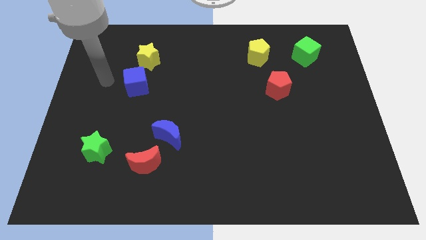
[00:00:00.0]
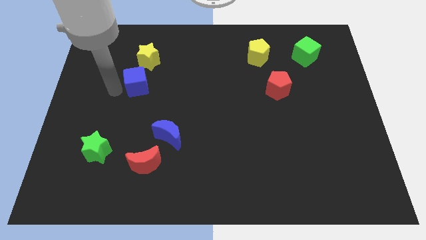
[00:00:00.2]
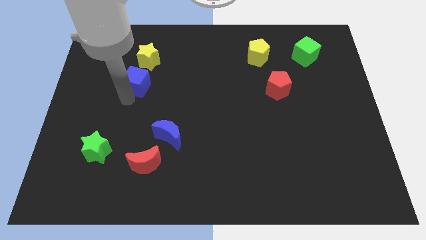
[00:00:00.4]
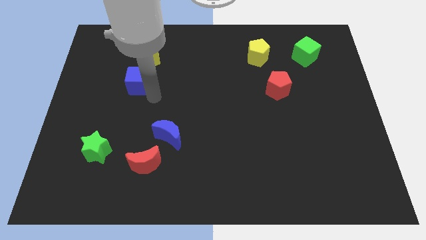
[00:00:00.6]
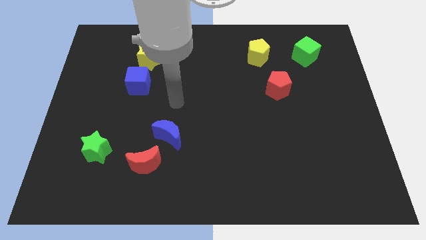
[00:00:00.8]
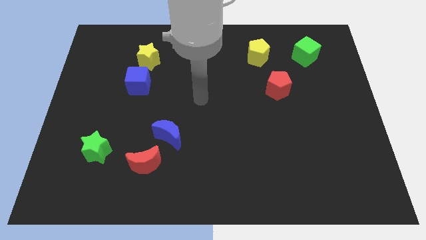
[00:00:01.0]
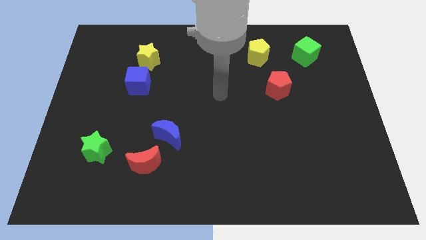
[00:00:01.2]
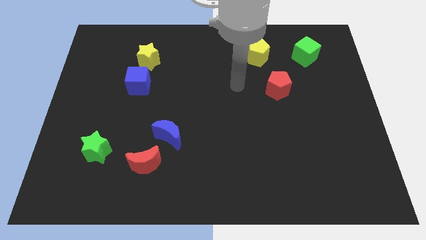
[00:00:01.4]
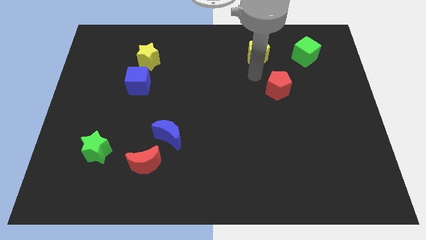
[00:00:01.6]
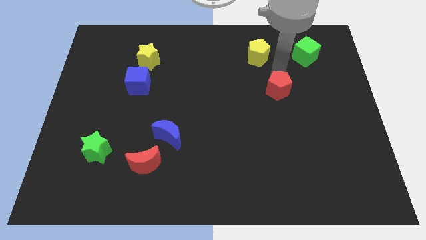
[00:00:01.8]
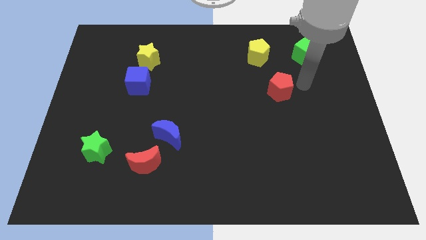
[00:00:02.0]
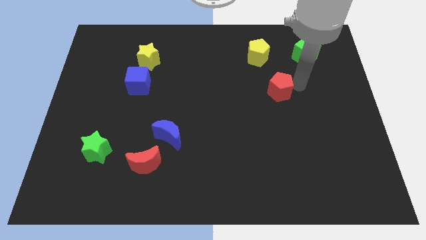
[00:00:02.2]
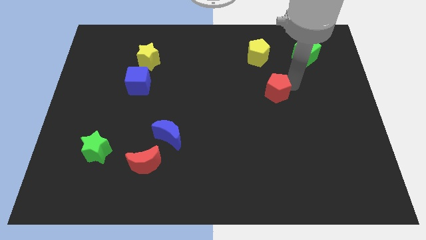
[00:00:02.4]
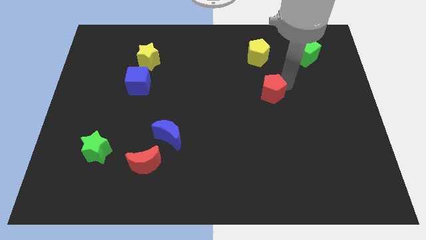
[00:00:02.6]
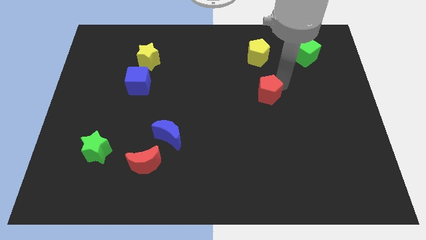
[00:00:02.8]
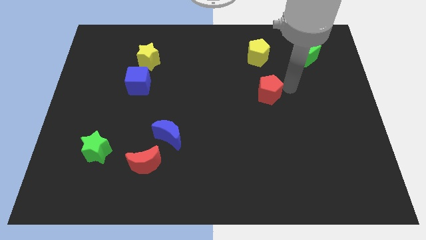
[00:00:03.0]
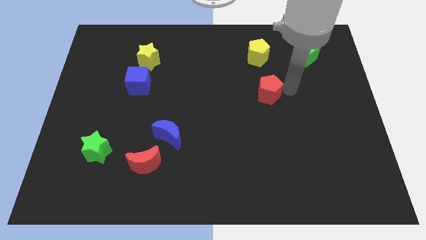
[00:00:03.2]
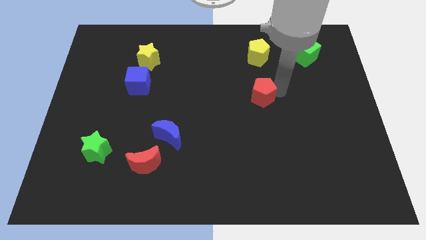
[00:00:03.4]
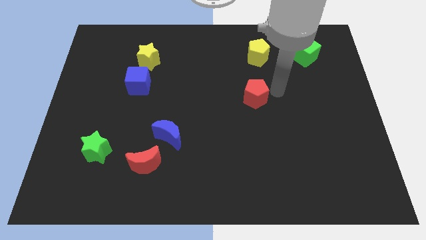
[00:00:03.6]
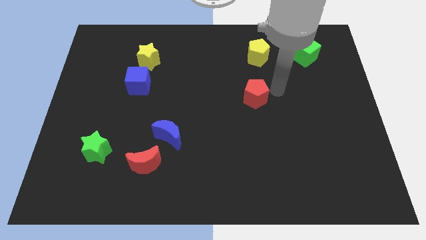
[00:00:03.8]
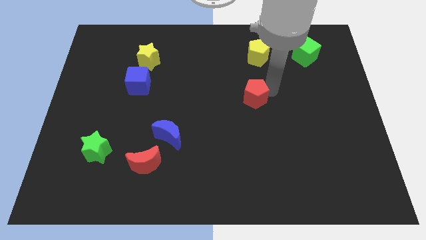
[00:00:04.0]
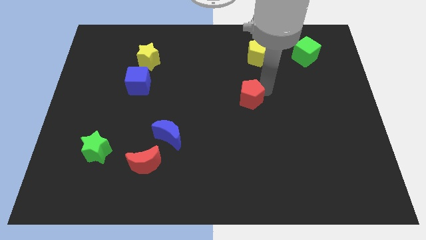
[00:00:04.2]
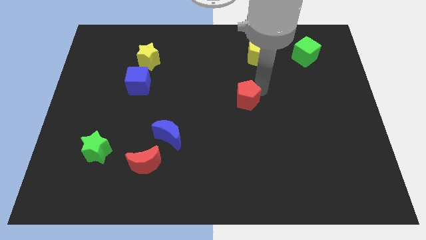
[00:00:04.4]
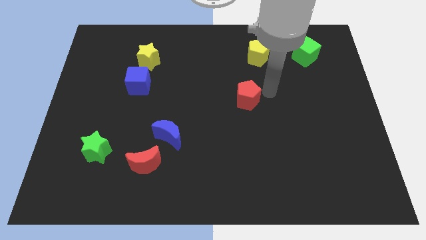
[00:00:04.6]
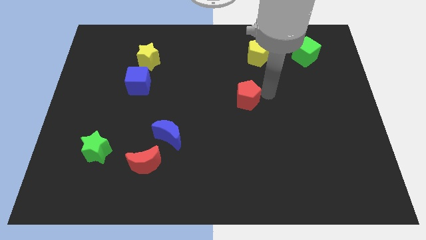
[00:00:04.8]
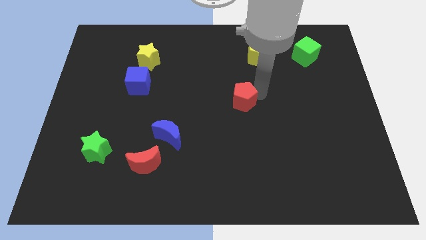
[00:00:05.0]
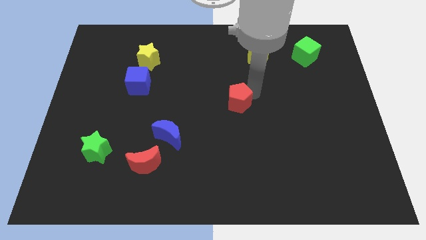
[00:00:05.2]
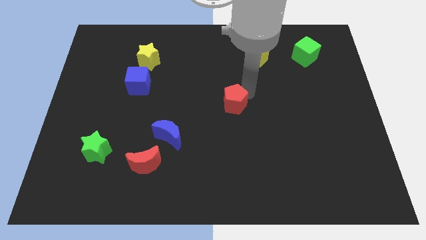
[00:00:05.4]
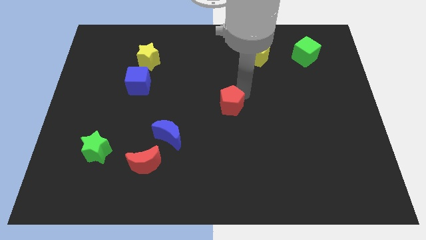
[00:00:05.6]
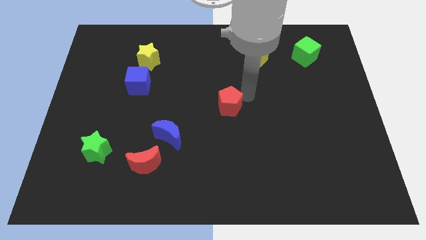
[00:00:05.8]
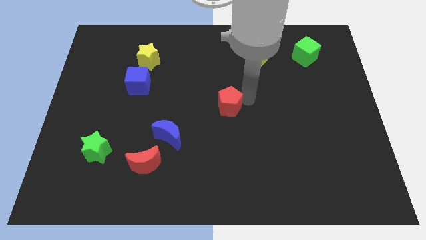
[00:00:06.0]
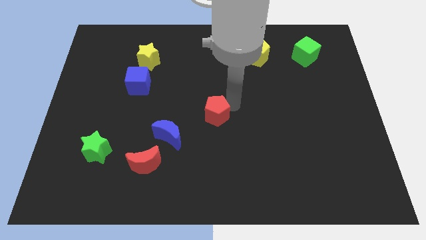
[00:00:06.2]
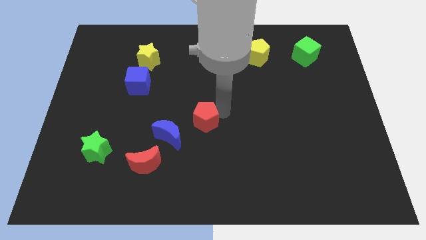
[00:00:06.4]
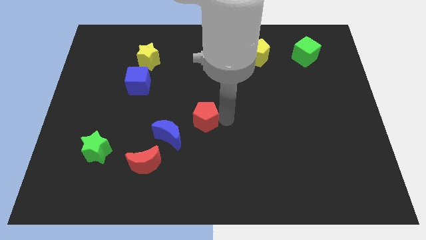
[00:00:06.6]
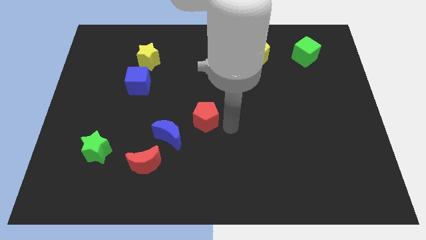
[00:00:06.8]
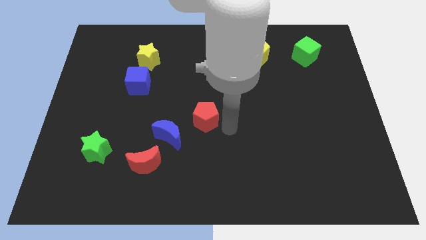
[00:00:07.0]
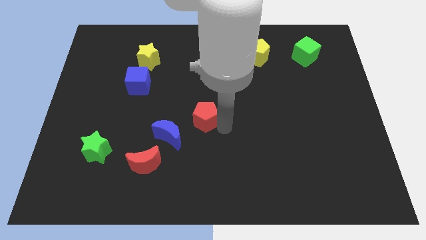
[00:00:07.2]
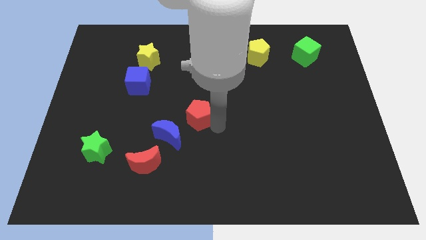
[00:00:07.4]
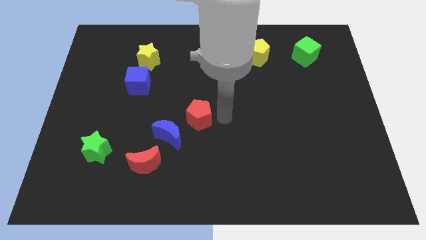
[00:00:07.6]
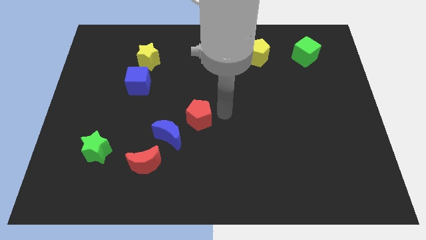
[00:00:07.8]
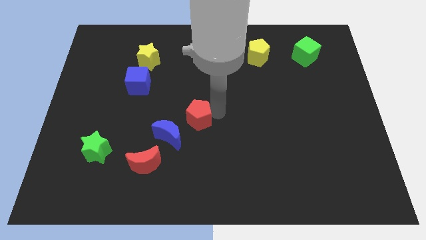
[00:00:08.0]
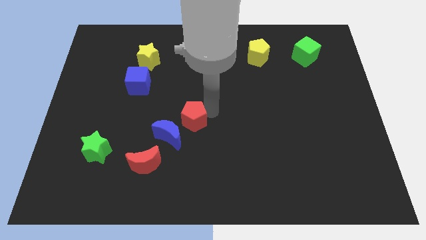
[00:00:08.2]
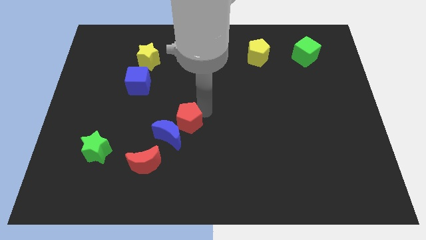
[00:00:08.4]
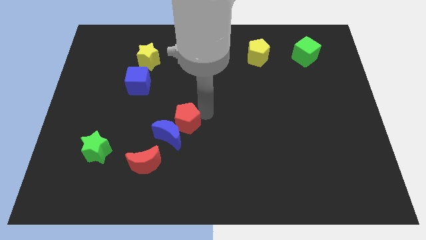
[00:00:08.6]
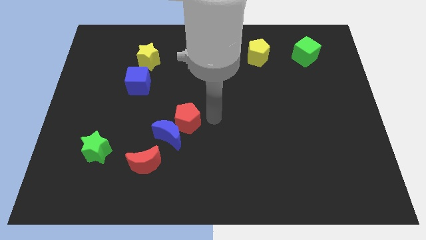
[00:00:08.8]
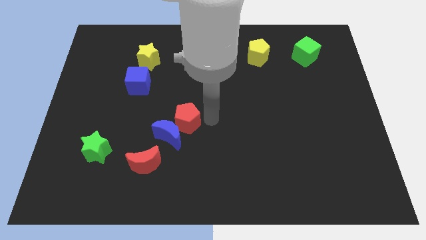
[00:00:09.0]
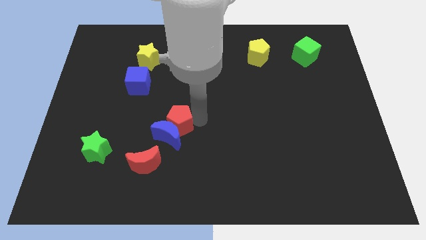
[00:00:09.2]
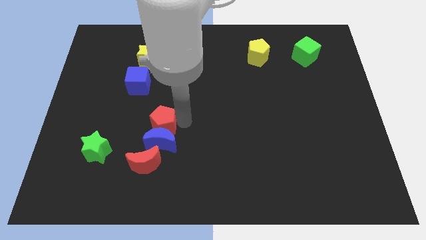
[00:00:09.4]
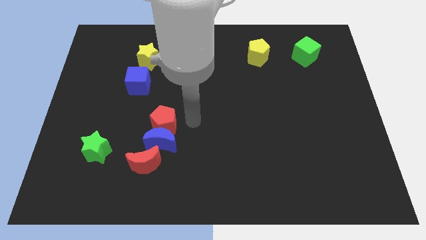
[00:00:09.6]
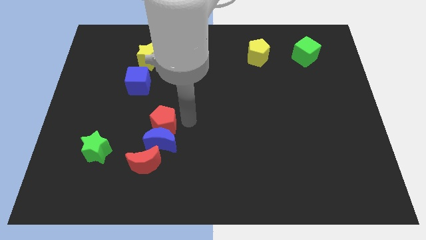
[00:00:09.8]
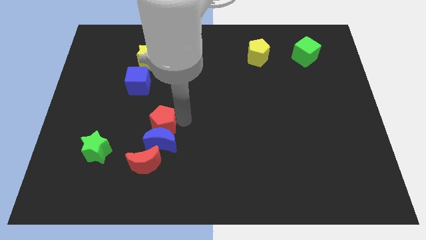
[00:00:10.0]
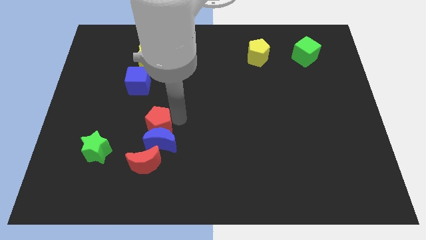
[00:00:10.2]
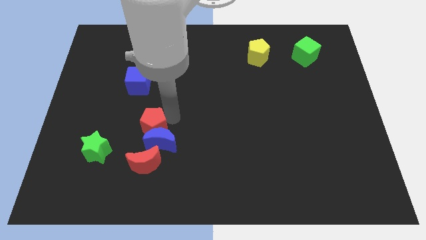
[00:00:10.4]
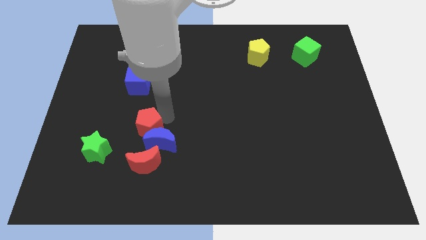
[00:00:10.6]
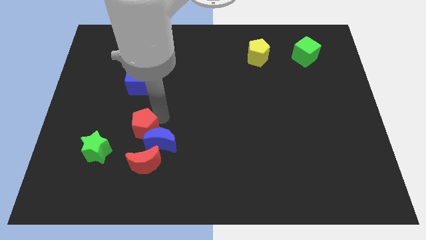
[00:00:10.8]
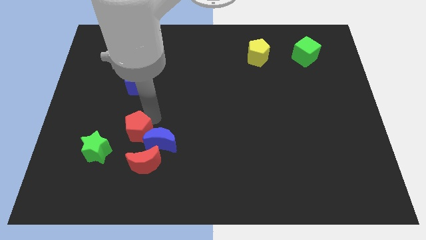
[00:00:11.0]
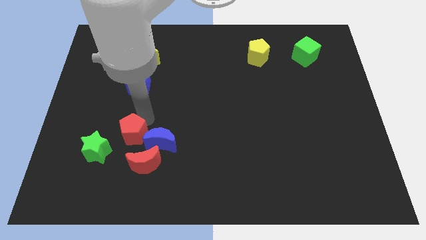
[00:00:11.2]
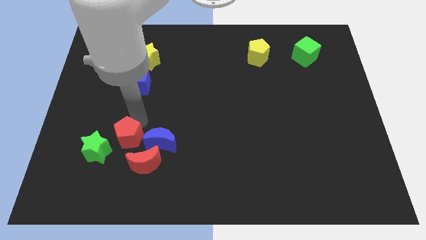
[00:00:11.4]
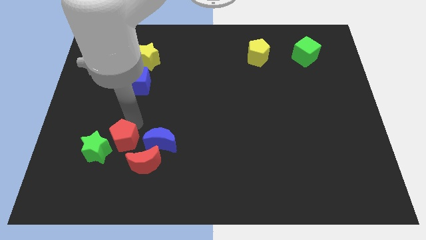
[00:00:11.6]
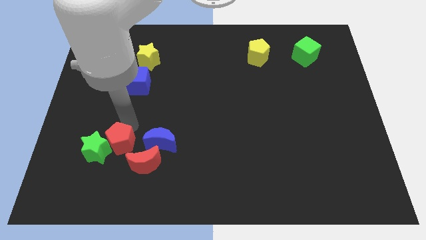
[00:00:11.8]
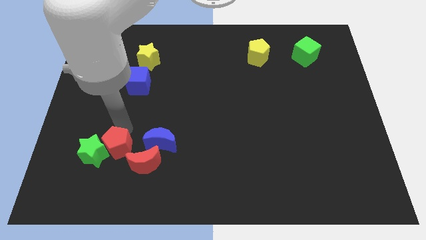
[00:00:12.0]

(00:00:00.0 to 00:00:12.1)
put the red pentagon to the left side of the red moon

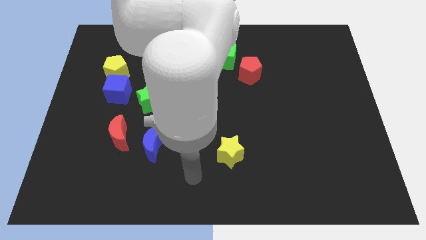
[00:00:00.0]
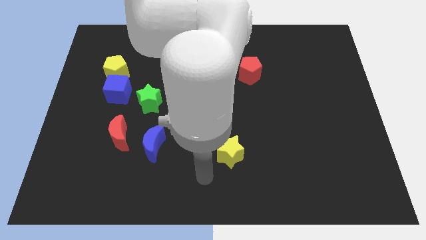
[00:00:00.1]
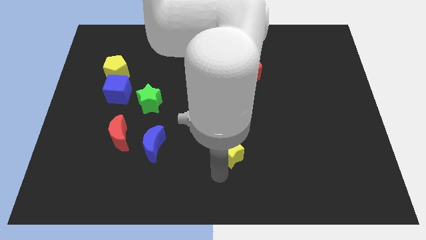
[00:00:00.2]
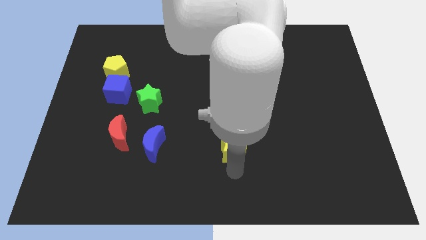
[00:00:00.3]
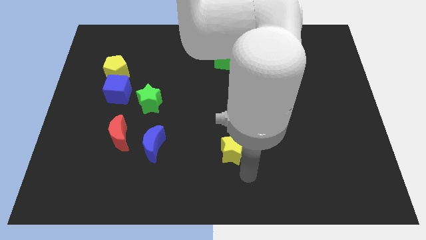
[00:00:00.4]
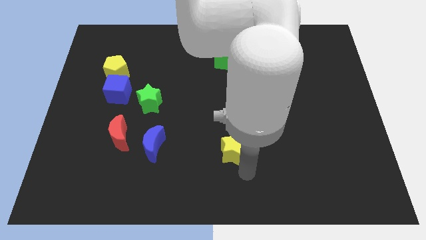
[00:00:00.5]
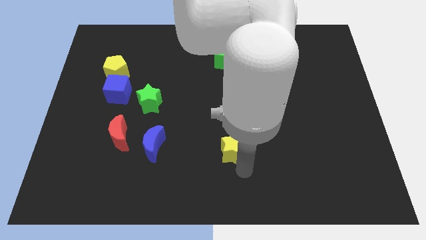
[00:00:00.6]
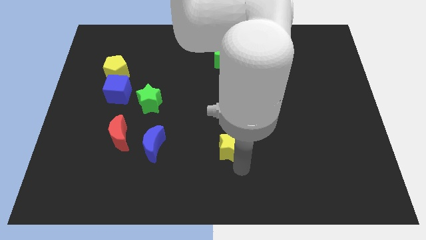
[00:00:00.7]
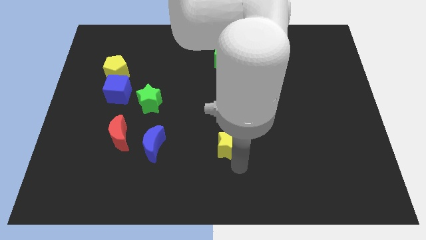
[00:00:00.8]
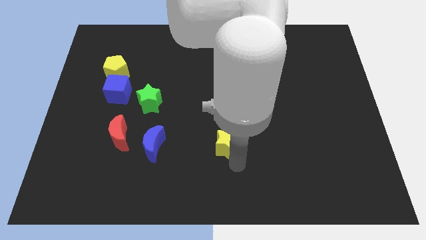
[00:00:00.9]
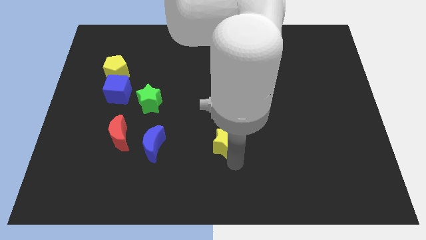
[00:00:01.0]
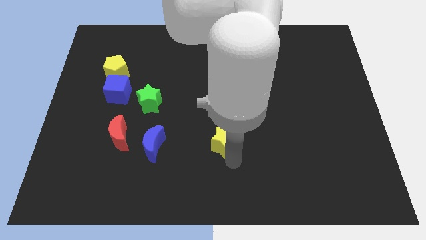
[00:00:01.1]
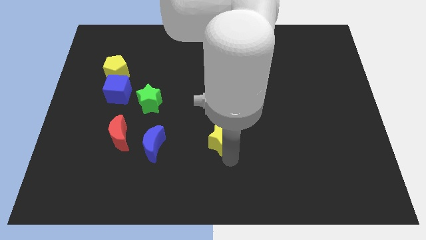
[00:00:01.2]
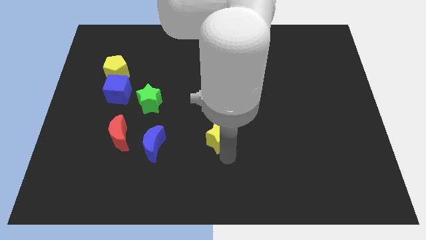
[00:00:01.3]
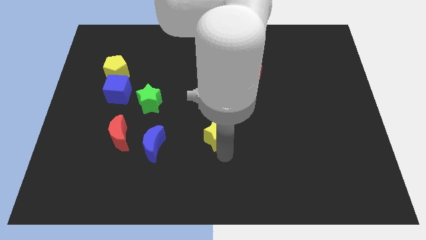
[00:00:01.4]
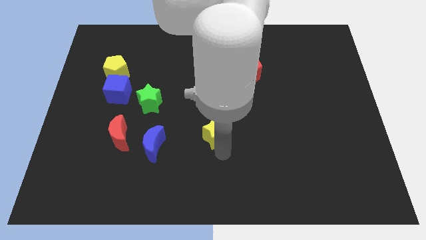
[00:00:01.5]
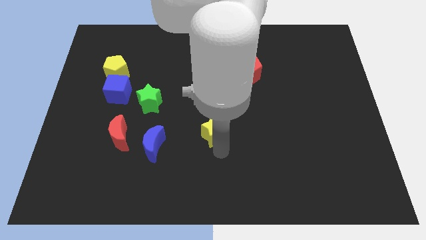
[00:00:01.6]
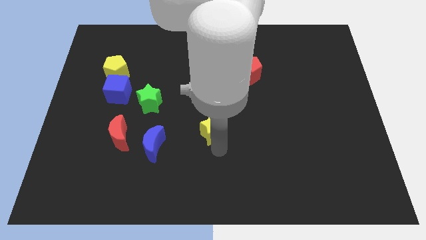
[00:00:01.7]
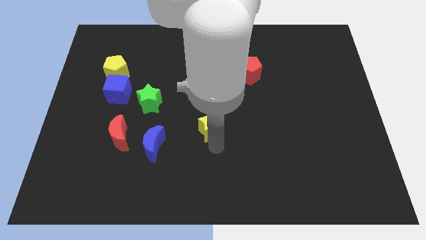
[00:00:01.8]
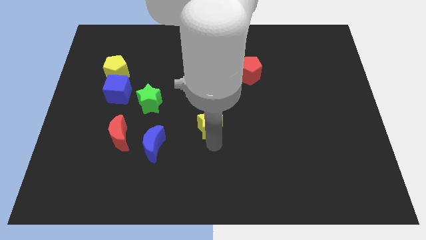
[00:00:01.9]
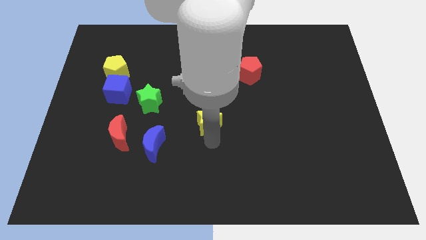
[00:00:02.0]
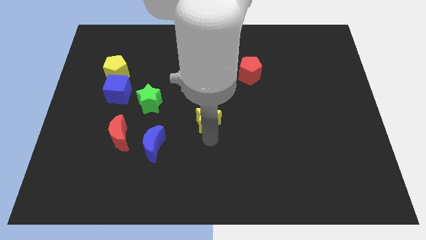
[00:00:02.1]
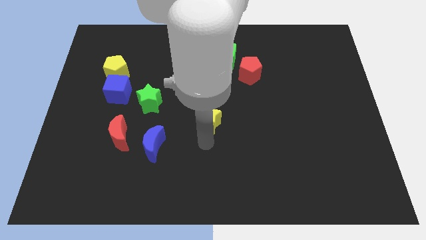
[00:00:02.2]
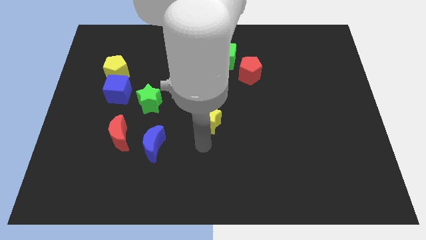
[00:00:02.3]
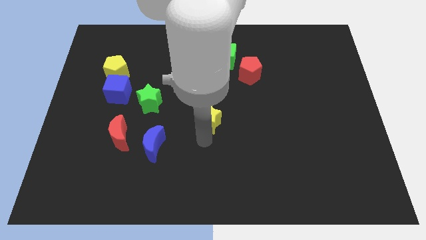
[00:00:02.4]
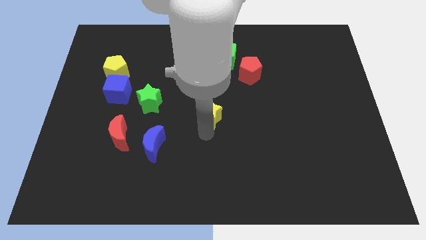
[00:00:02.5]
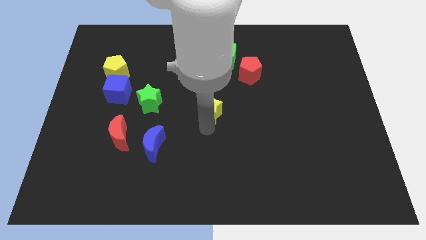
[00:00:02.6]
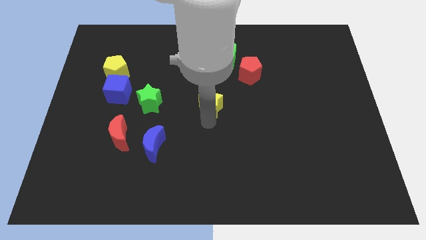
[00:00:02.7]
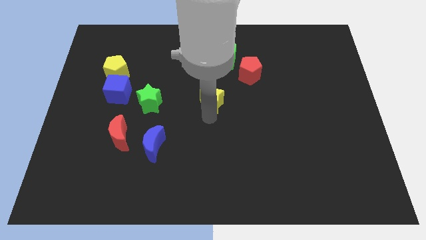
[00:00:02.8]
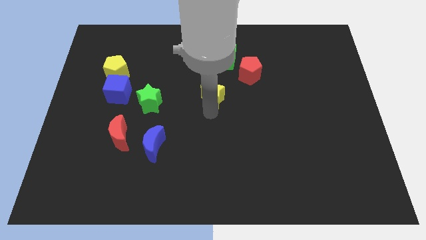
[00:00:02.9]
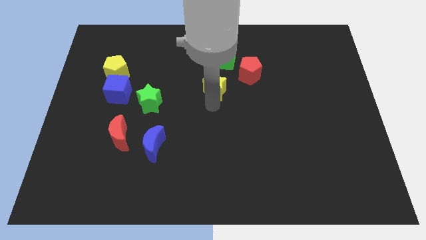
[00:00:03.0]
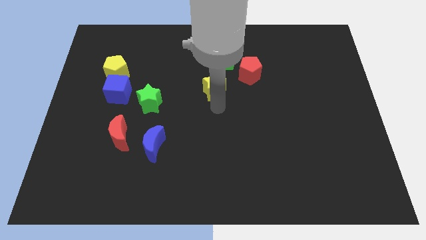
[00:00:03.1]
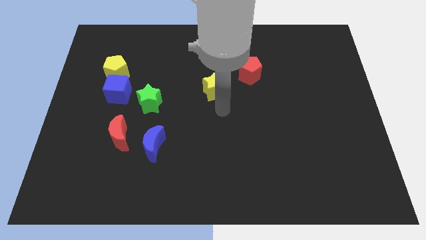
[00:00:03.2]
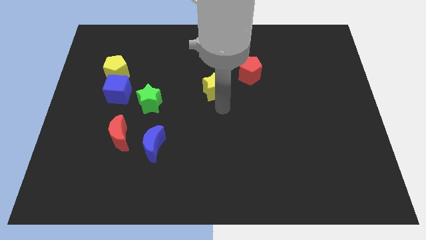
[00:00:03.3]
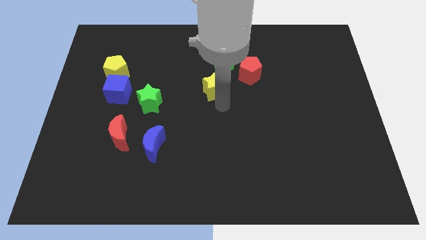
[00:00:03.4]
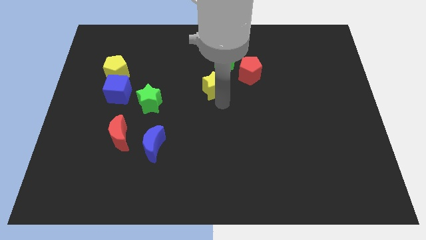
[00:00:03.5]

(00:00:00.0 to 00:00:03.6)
put the yellow star just left of the red pentagon
